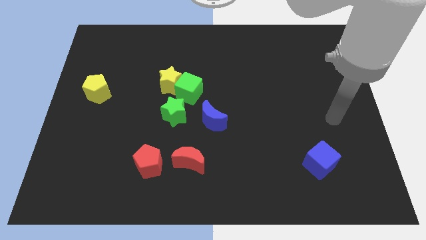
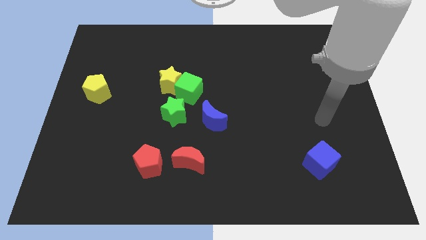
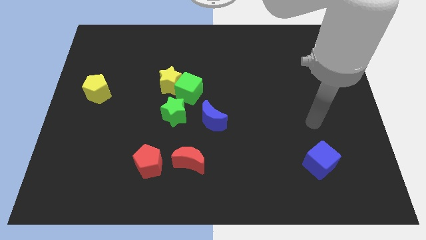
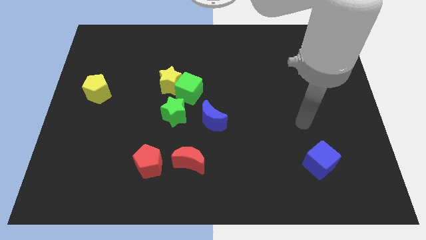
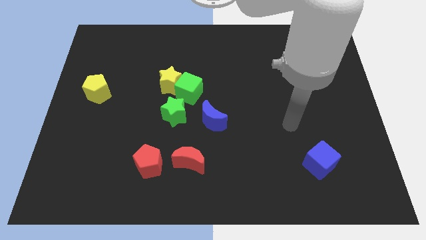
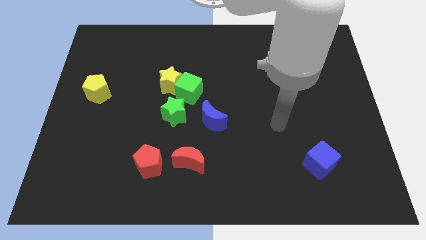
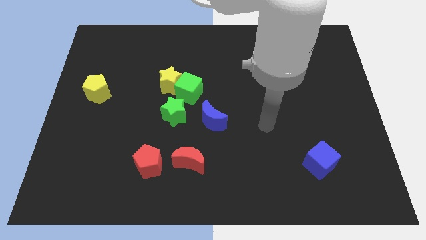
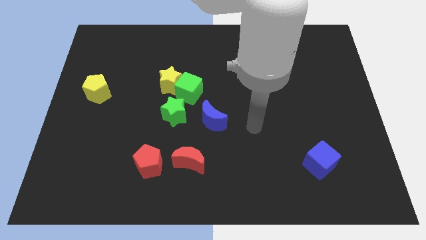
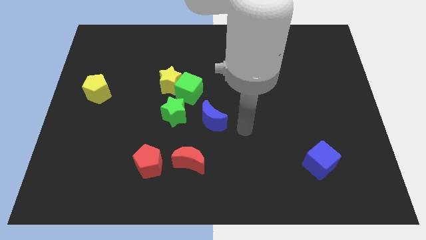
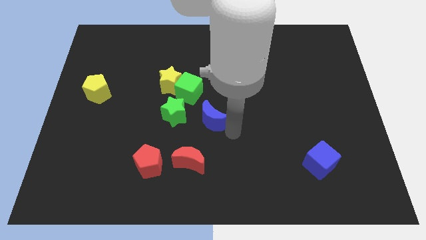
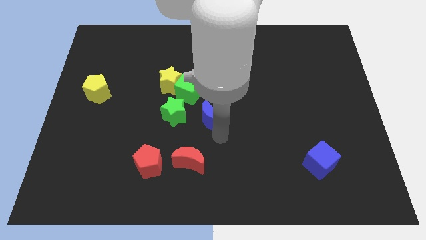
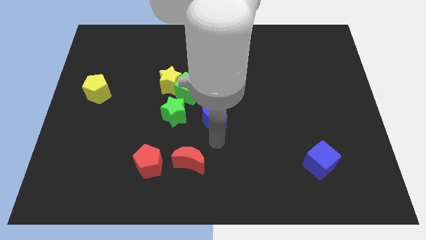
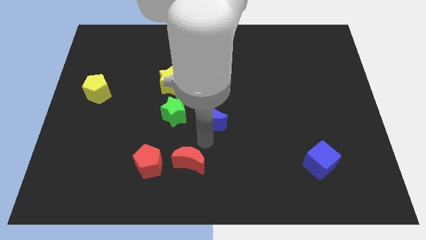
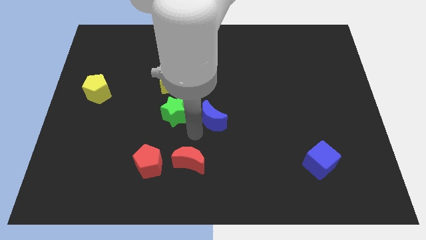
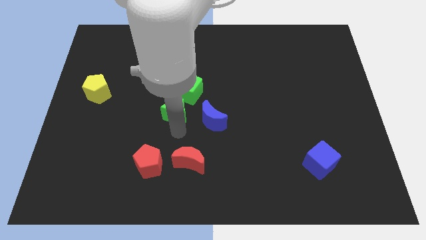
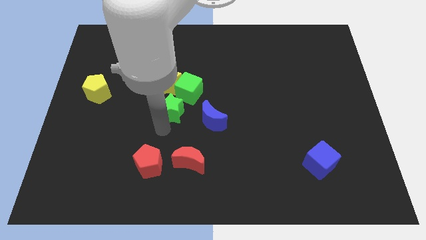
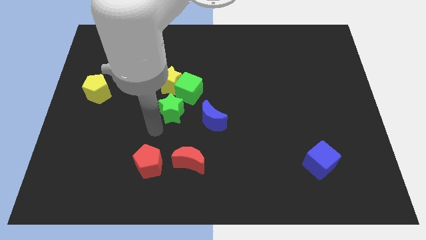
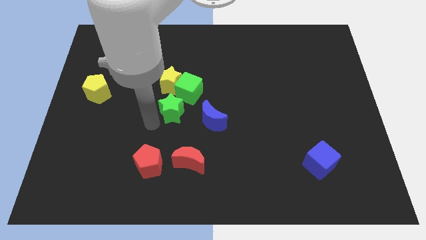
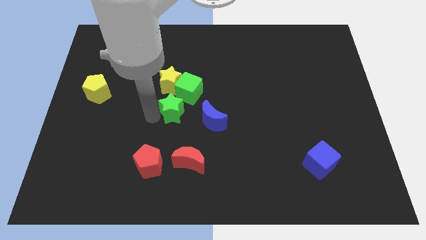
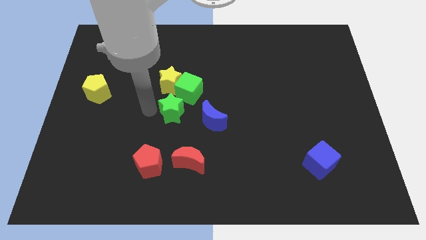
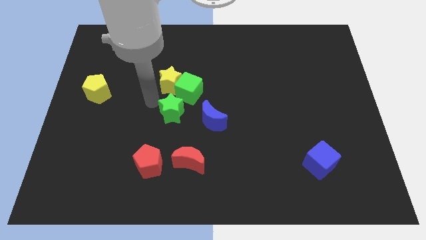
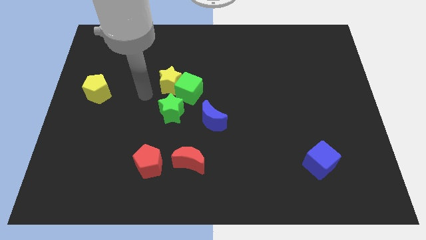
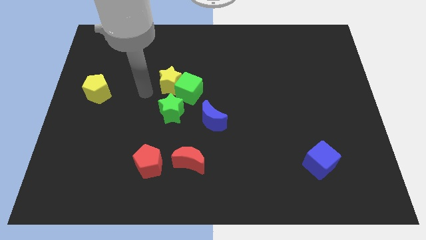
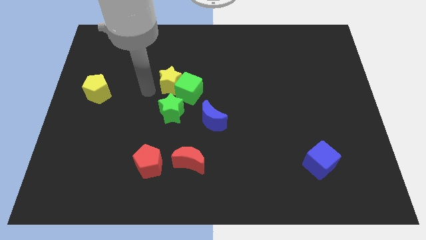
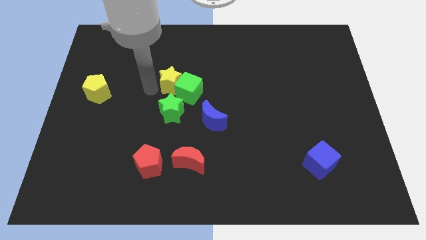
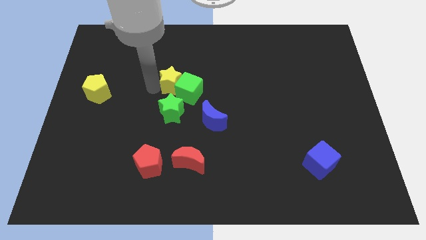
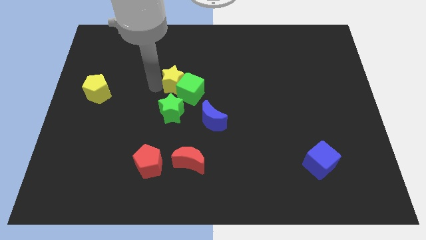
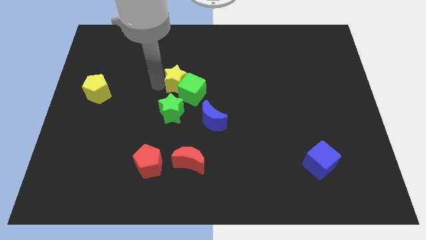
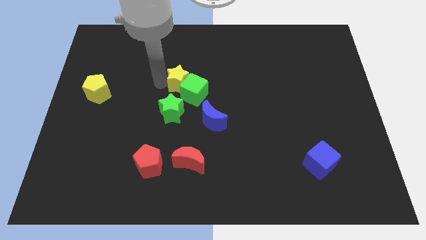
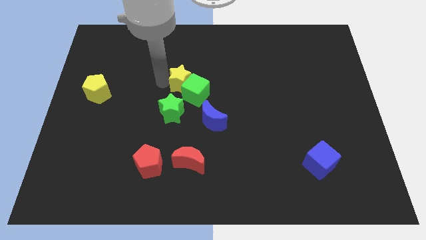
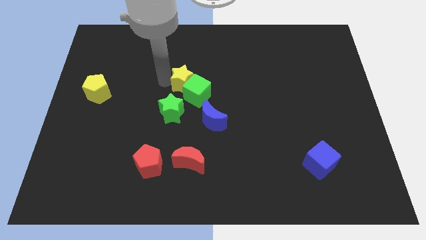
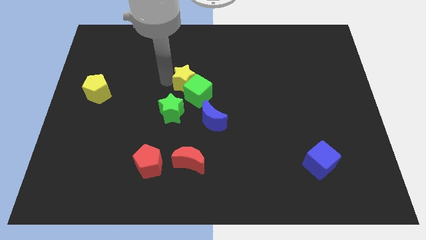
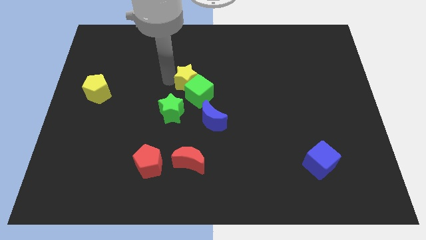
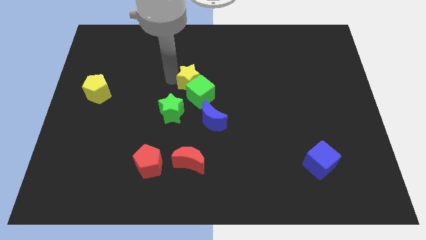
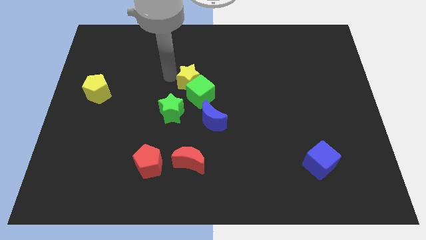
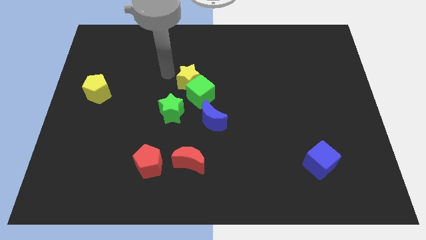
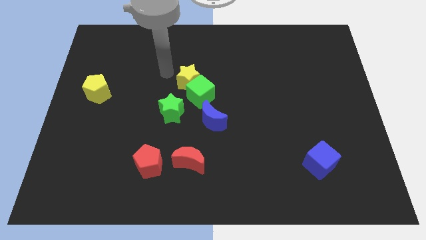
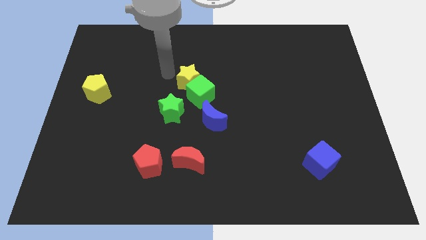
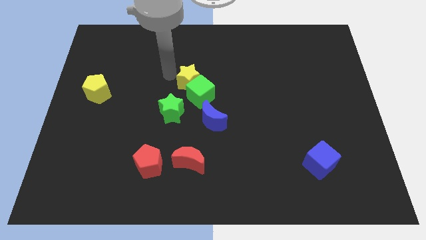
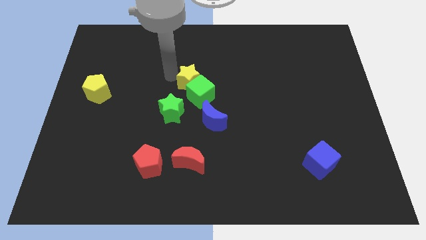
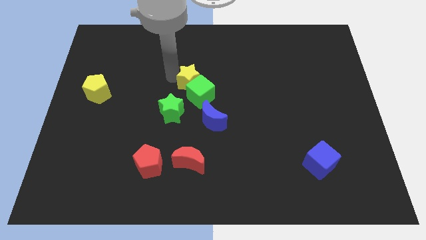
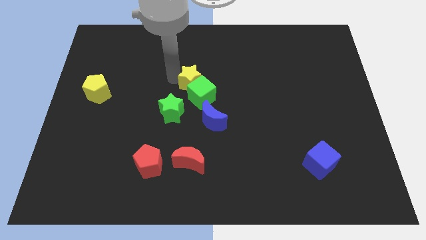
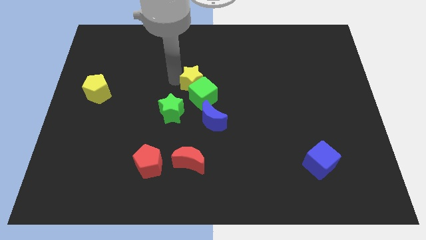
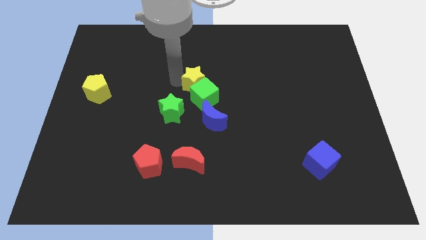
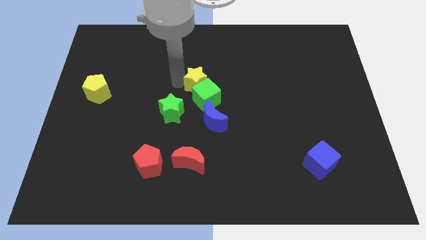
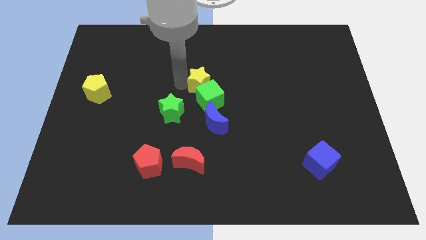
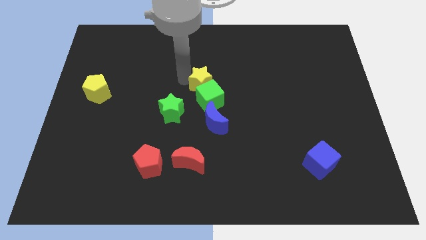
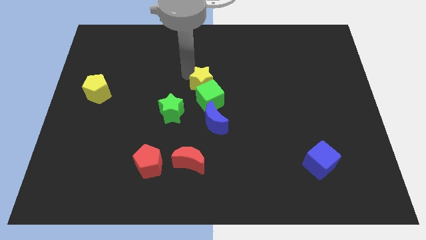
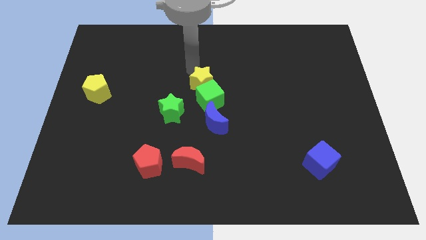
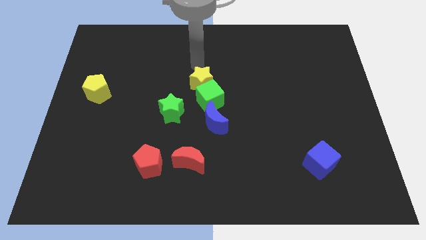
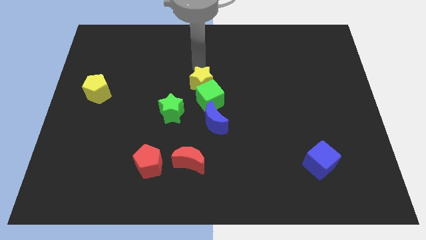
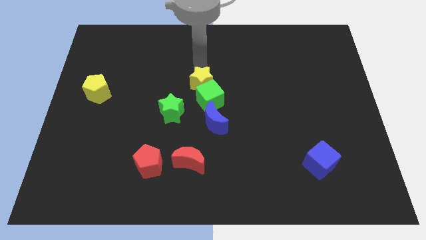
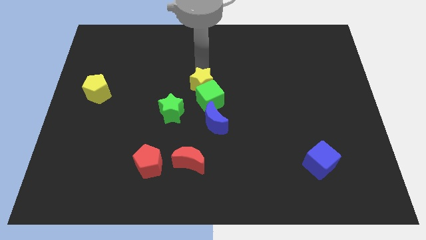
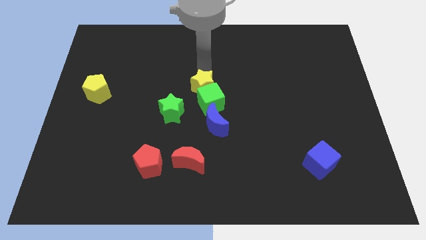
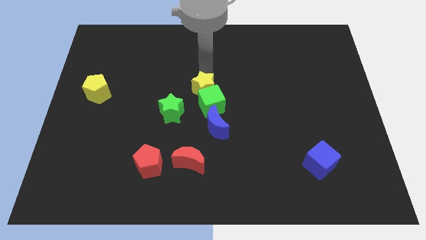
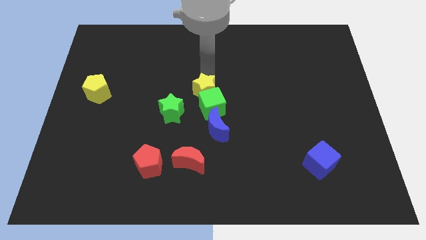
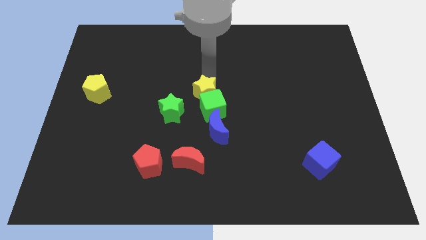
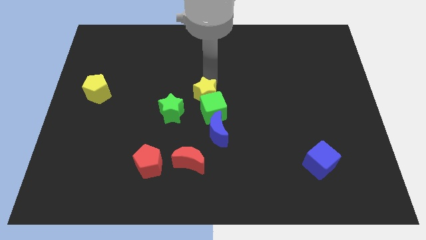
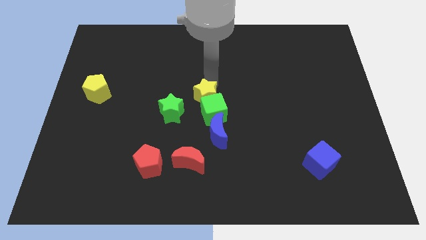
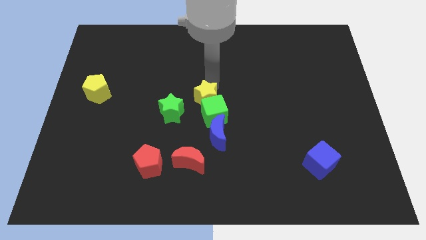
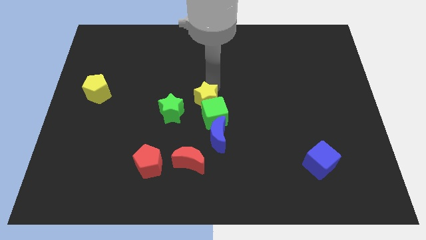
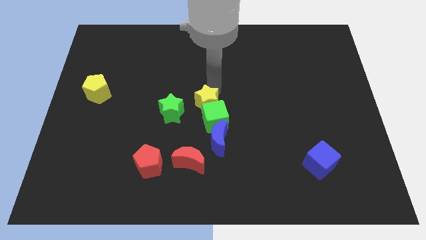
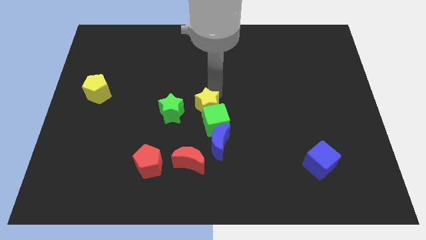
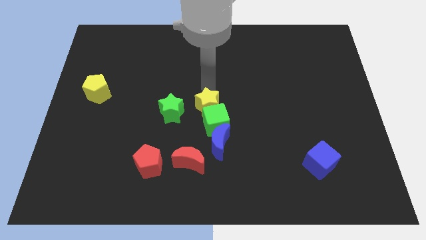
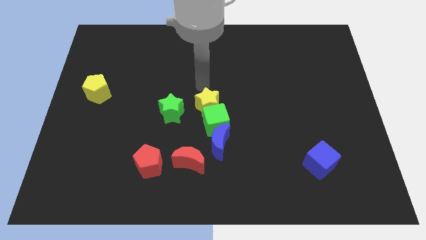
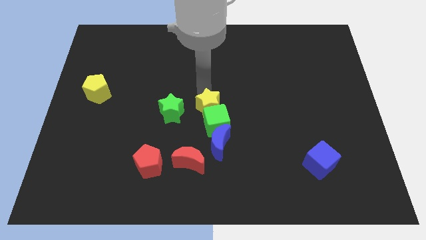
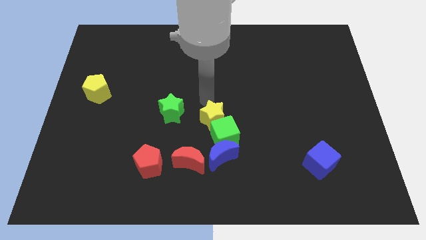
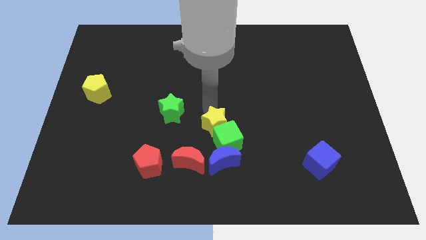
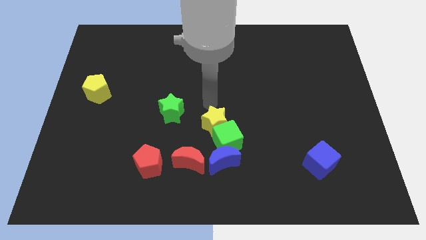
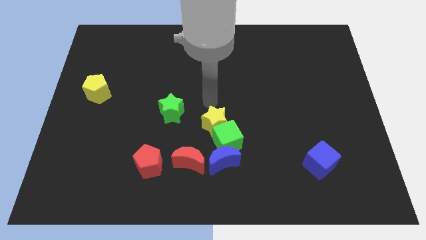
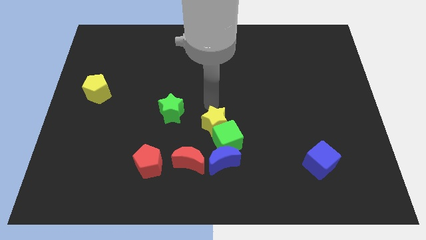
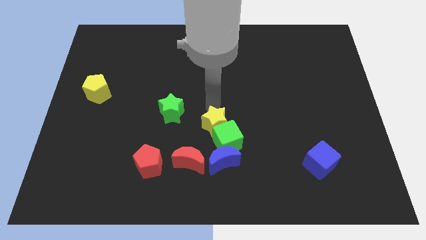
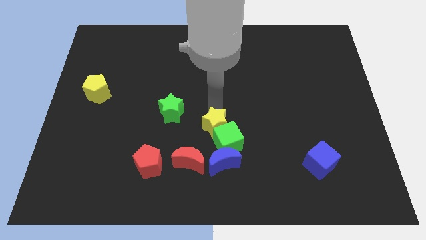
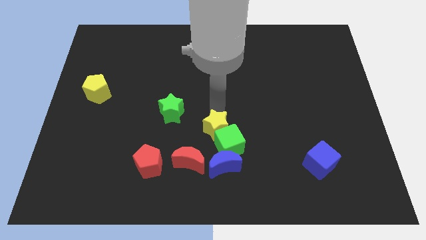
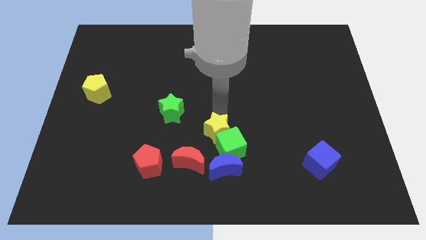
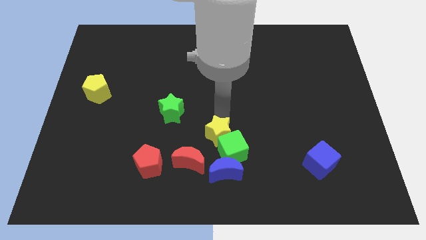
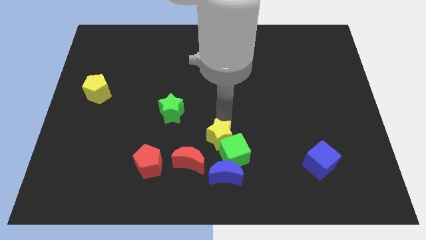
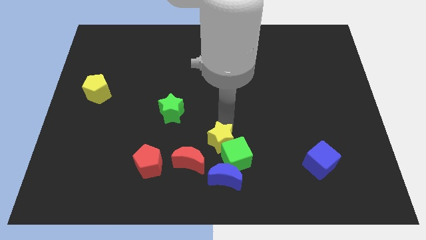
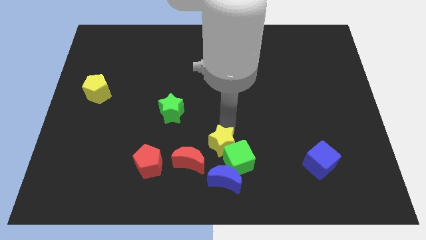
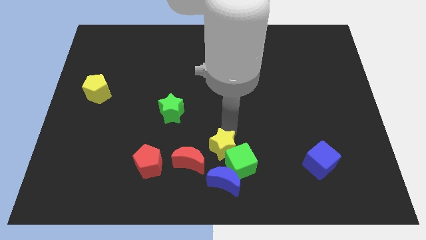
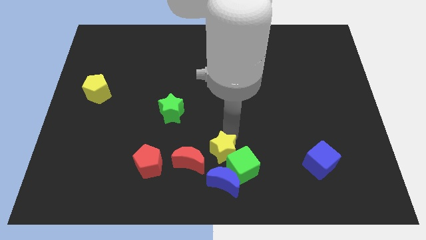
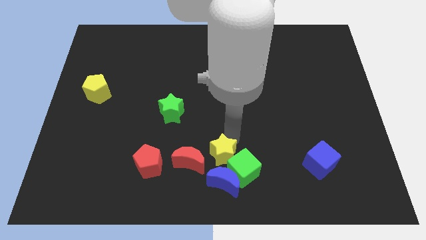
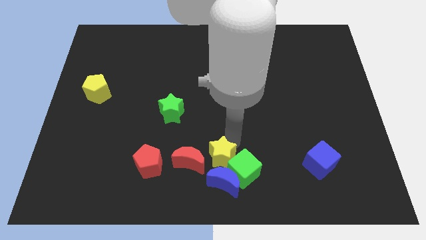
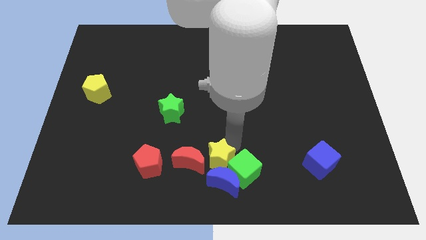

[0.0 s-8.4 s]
put the yellow star close to the blue moon

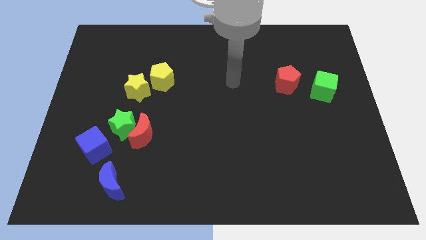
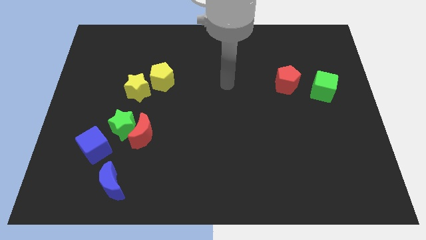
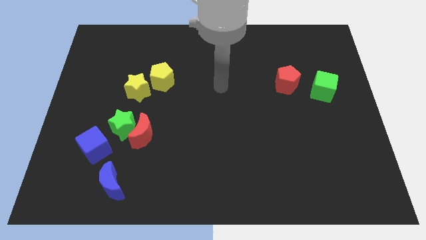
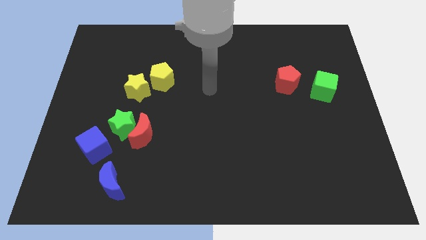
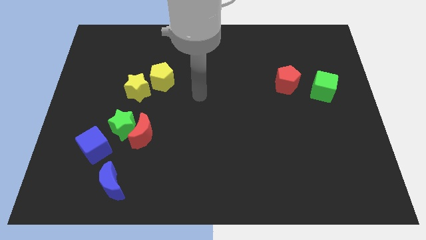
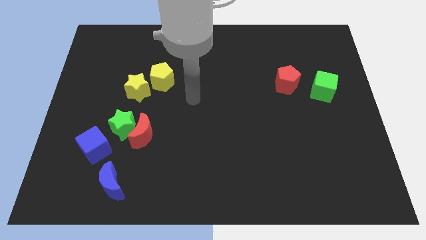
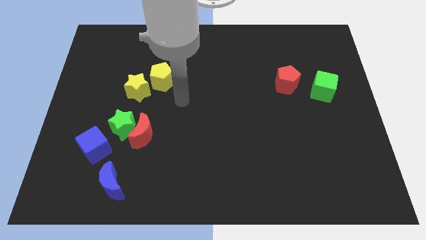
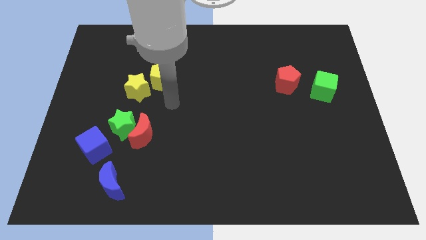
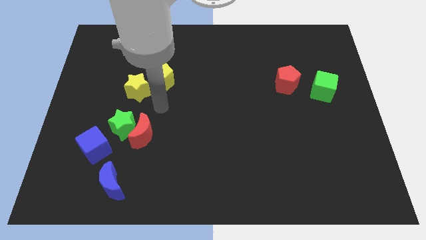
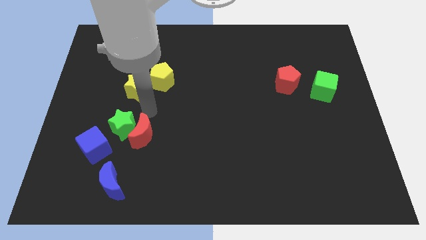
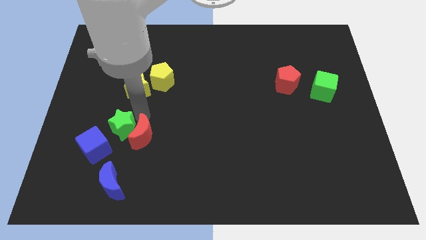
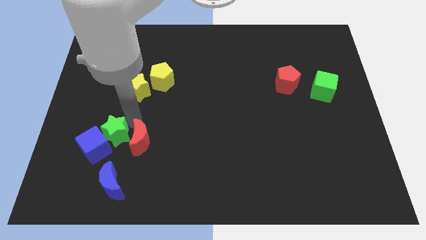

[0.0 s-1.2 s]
put the green star next to the blue cube
